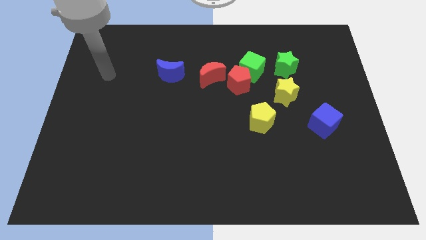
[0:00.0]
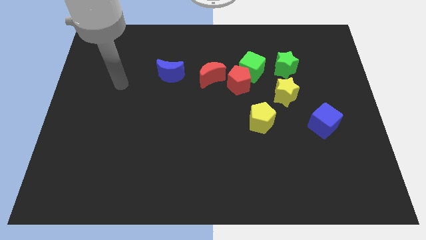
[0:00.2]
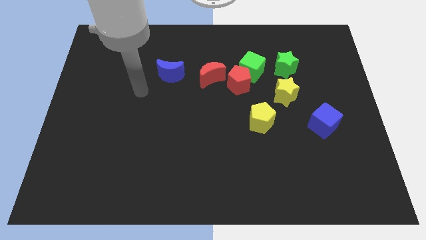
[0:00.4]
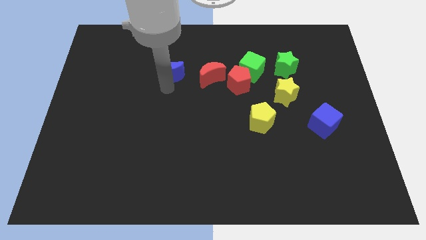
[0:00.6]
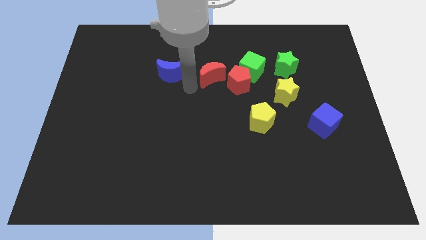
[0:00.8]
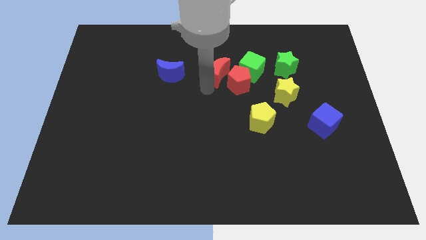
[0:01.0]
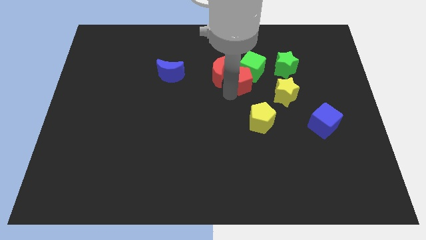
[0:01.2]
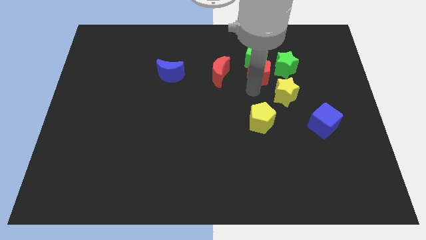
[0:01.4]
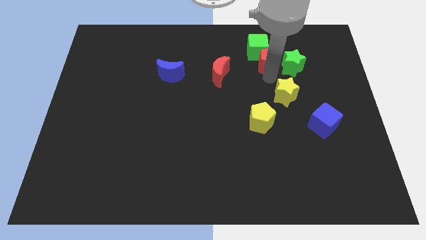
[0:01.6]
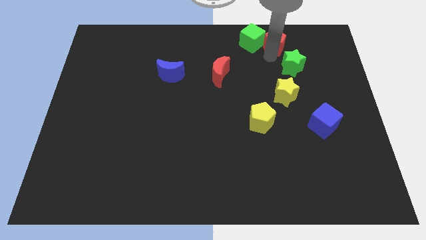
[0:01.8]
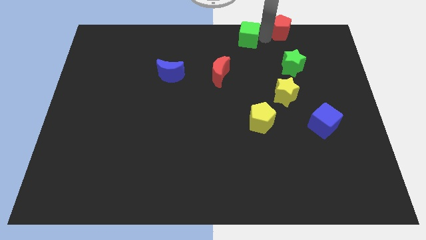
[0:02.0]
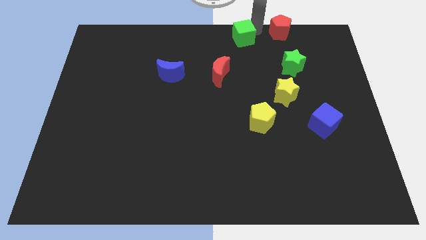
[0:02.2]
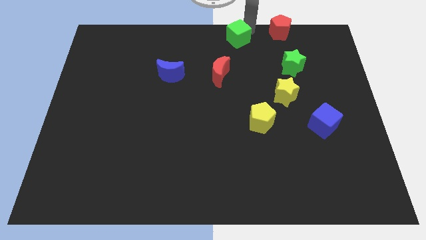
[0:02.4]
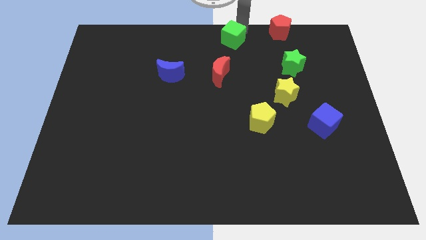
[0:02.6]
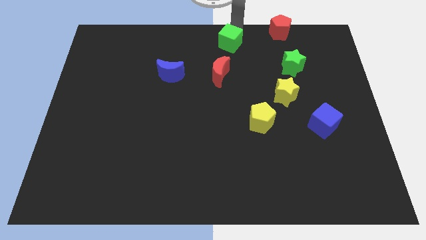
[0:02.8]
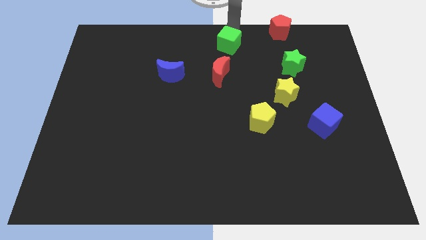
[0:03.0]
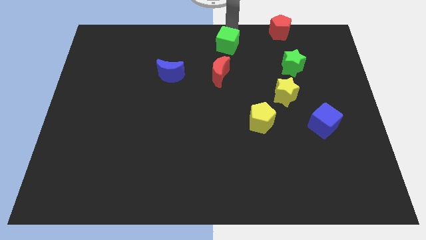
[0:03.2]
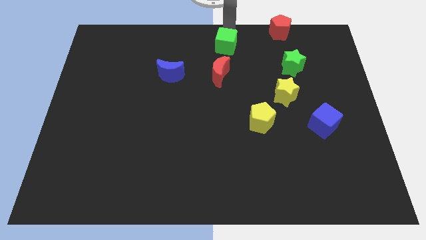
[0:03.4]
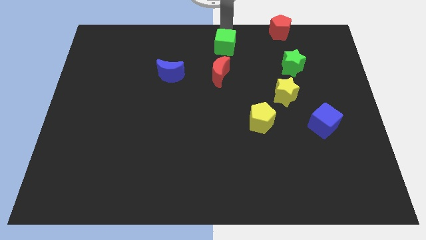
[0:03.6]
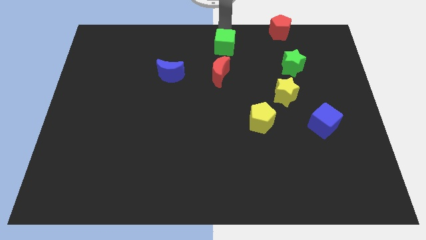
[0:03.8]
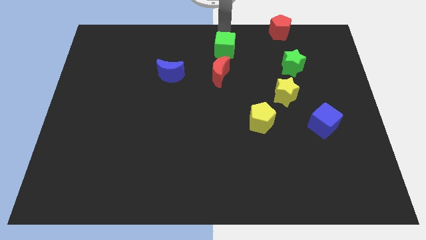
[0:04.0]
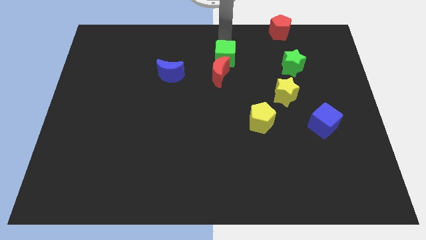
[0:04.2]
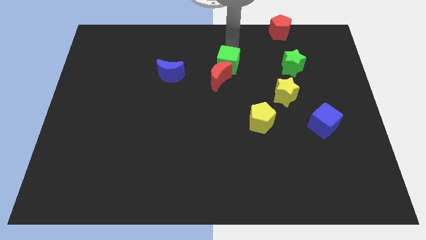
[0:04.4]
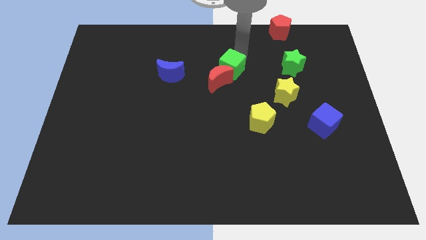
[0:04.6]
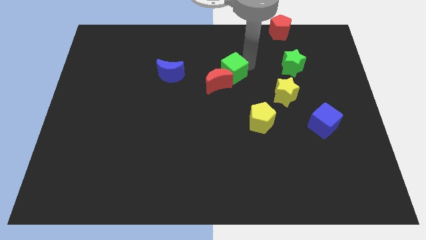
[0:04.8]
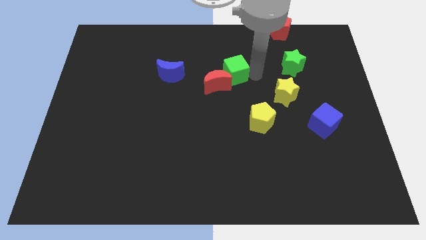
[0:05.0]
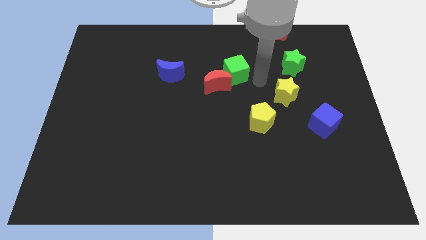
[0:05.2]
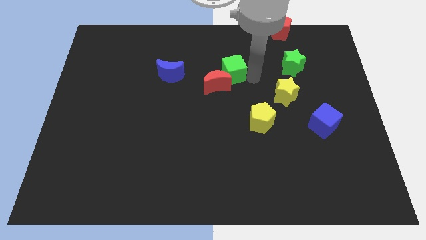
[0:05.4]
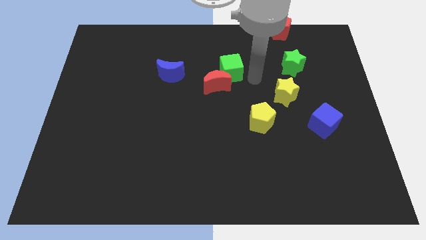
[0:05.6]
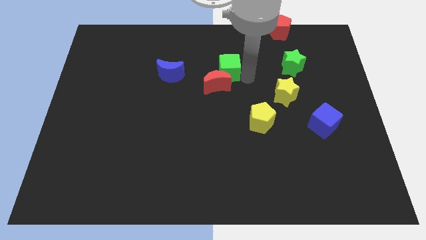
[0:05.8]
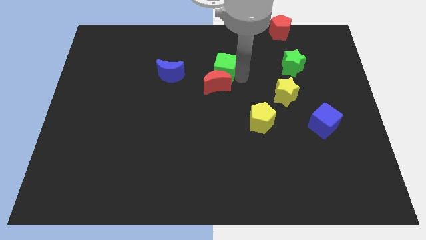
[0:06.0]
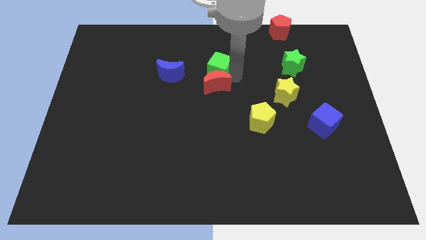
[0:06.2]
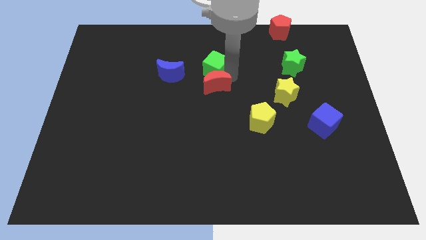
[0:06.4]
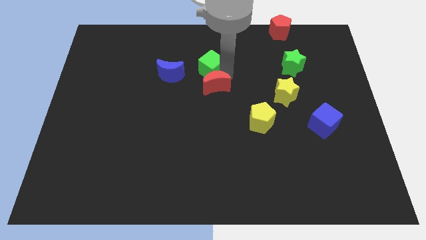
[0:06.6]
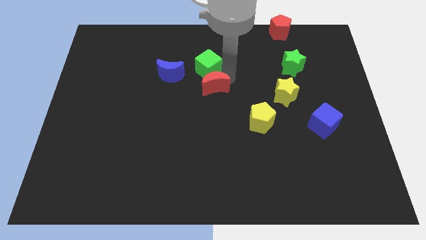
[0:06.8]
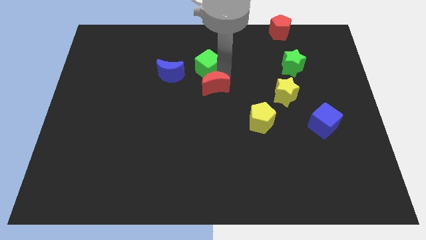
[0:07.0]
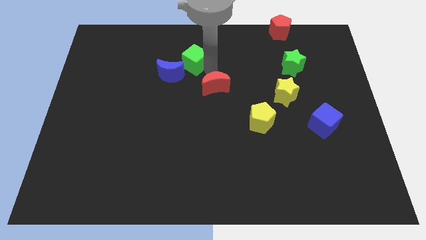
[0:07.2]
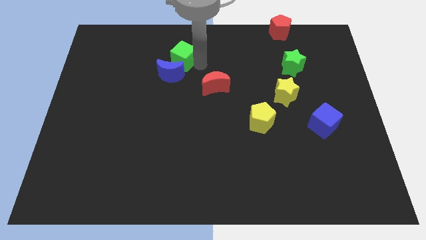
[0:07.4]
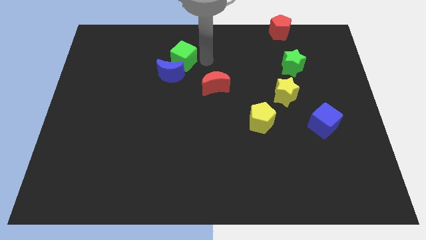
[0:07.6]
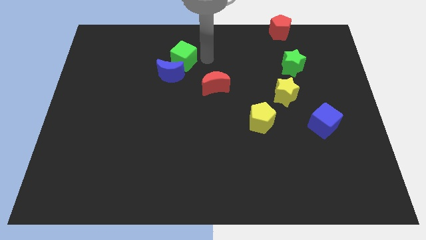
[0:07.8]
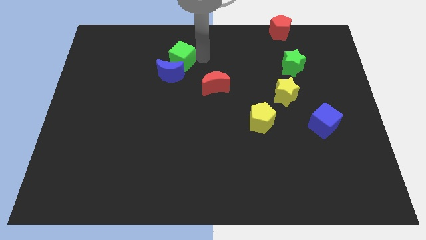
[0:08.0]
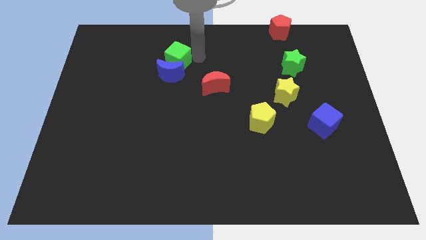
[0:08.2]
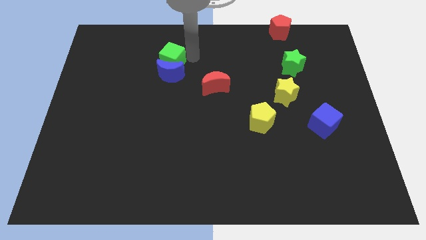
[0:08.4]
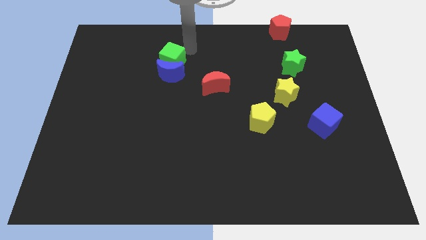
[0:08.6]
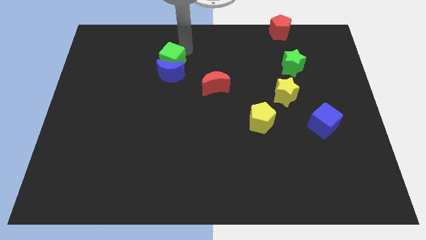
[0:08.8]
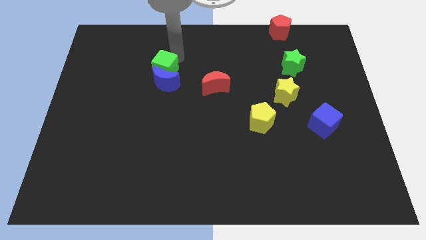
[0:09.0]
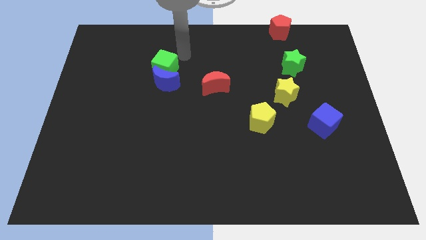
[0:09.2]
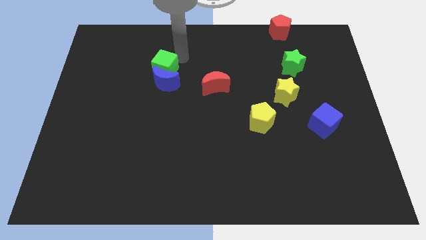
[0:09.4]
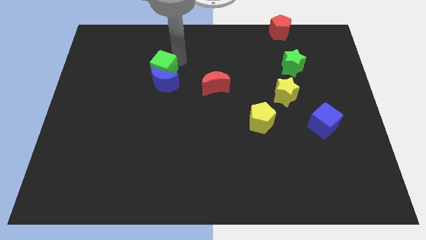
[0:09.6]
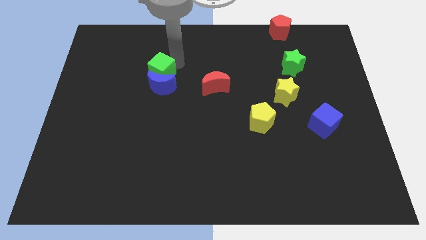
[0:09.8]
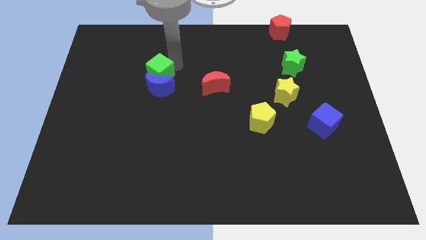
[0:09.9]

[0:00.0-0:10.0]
push the green cube left of the red moon

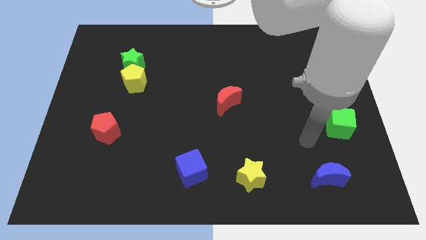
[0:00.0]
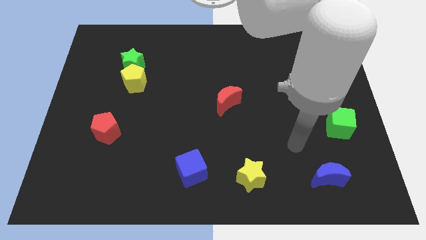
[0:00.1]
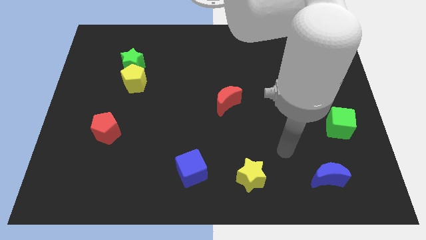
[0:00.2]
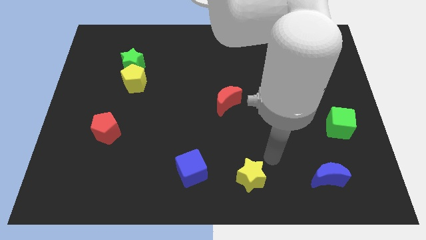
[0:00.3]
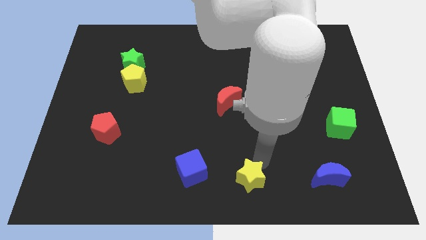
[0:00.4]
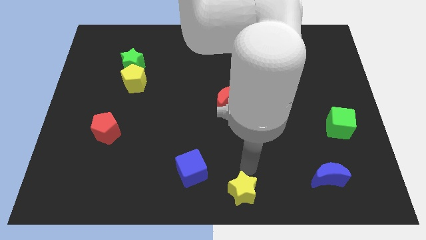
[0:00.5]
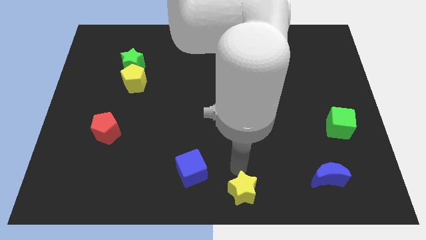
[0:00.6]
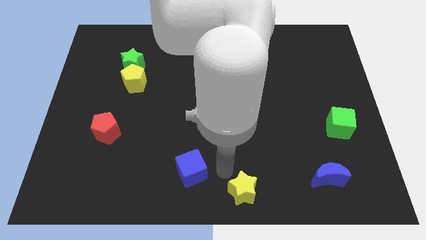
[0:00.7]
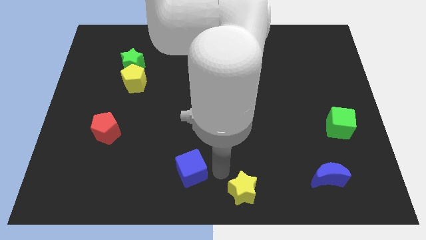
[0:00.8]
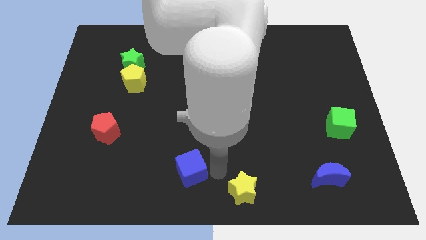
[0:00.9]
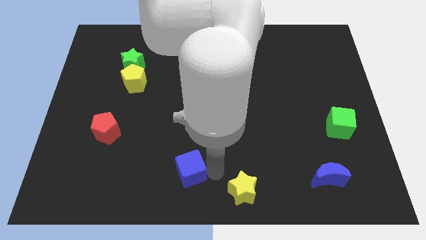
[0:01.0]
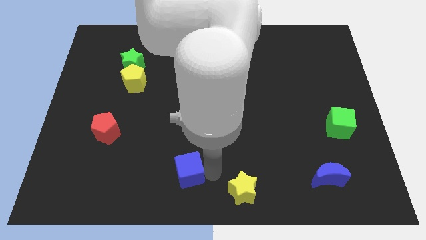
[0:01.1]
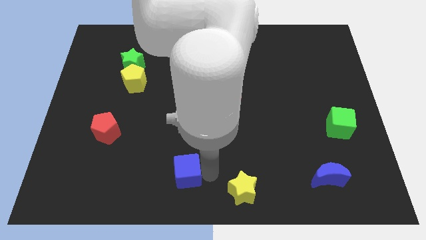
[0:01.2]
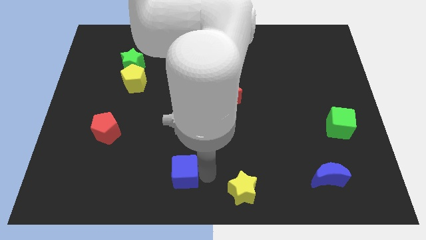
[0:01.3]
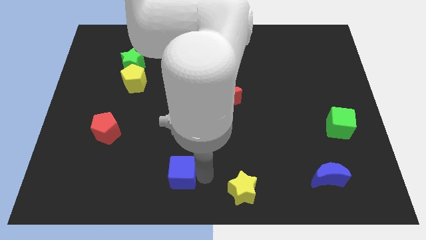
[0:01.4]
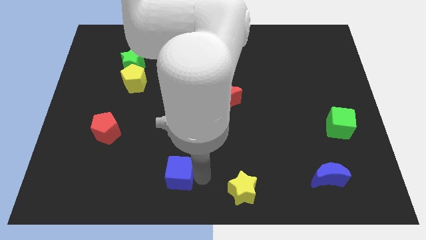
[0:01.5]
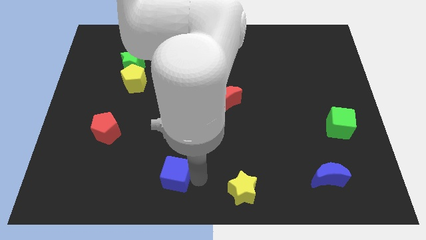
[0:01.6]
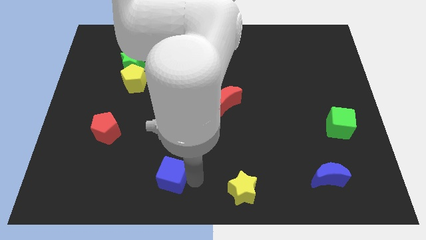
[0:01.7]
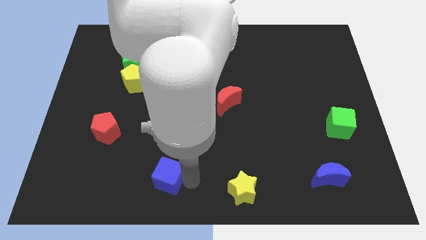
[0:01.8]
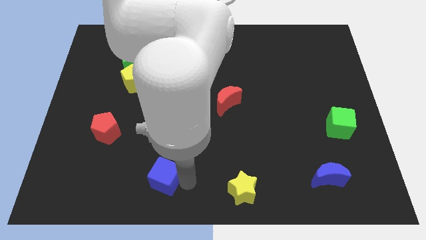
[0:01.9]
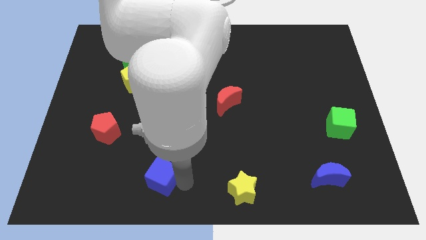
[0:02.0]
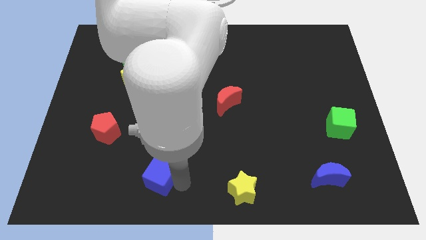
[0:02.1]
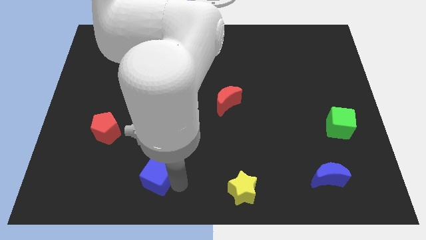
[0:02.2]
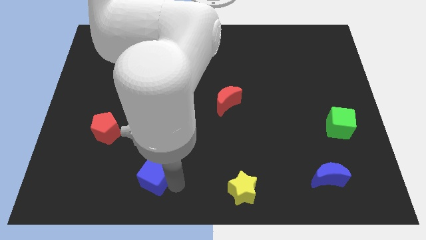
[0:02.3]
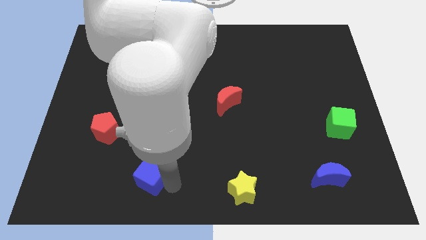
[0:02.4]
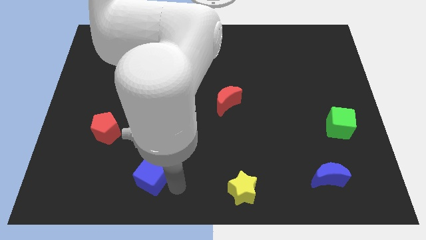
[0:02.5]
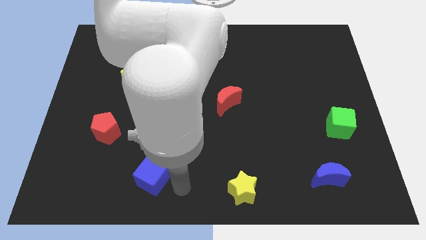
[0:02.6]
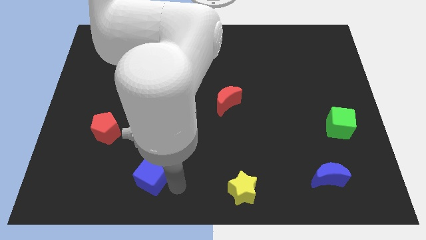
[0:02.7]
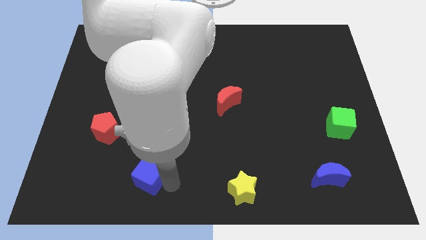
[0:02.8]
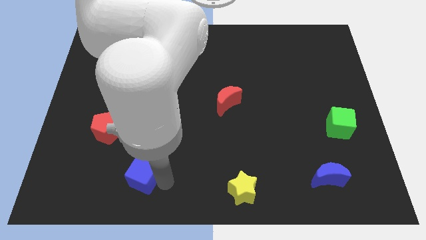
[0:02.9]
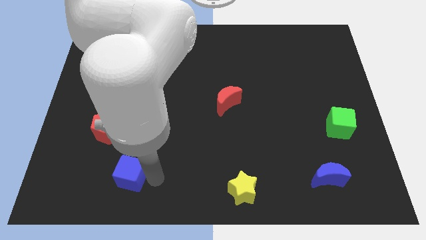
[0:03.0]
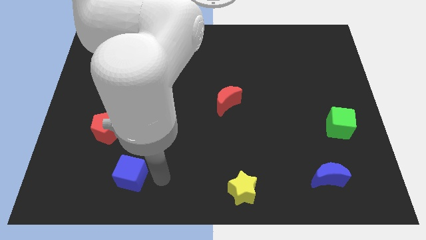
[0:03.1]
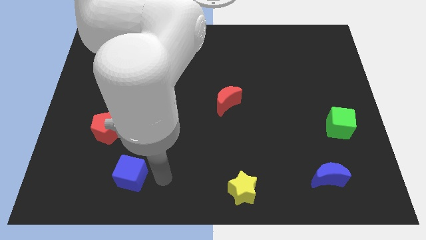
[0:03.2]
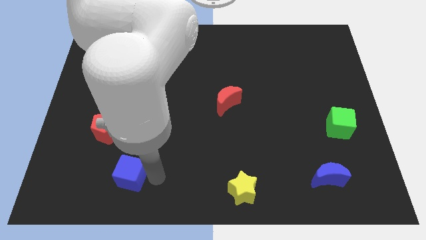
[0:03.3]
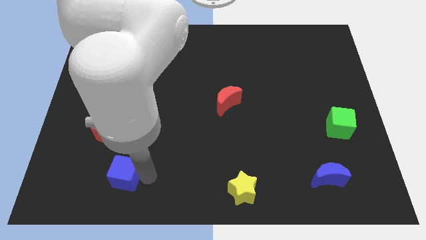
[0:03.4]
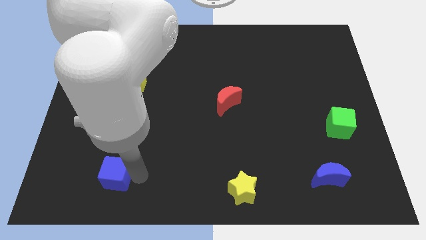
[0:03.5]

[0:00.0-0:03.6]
push the blue cube below the red pentagon
